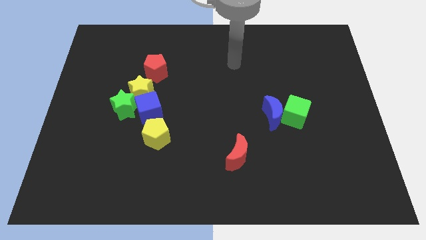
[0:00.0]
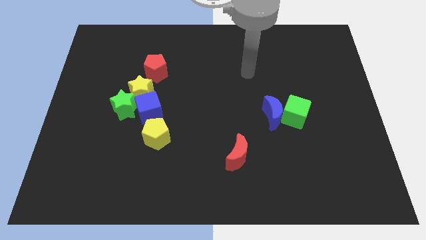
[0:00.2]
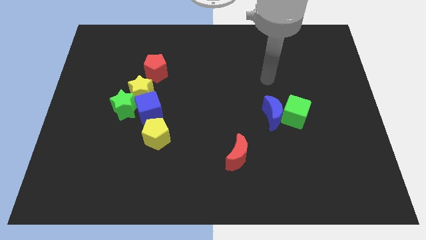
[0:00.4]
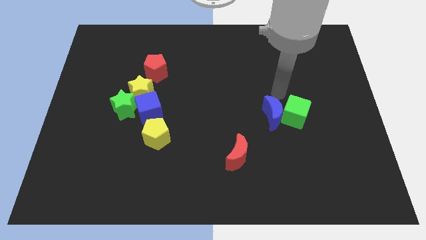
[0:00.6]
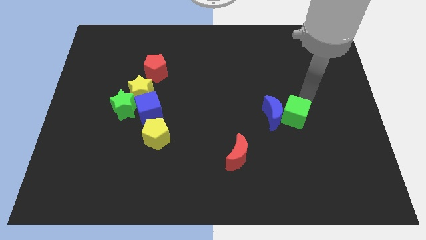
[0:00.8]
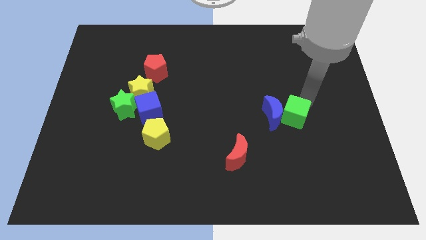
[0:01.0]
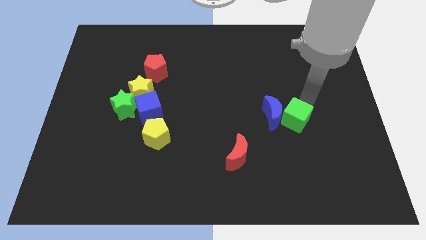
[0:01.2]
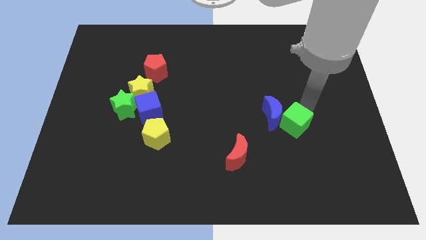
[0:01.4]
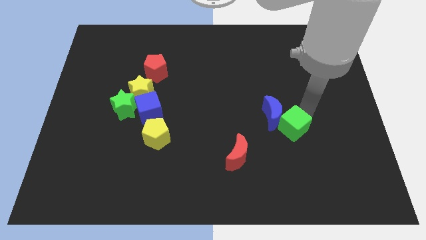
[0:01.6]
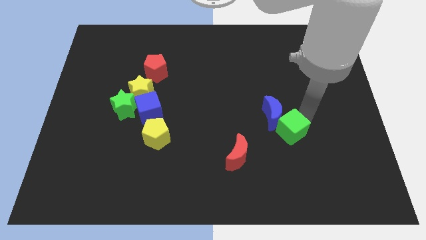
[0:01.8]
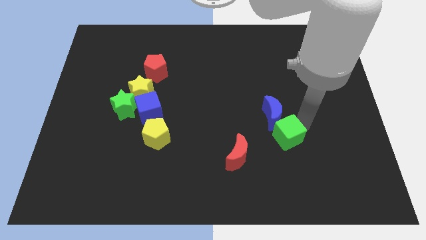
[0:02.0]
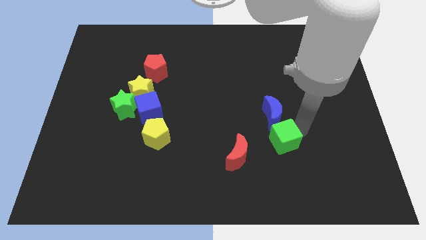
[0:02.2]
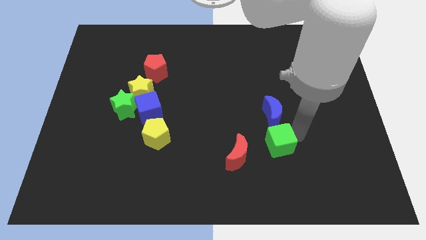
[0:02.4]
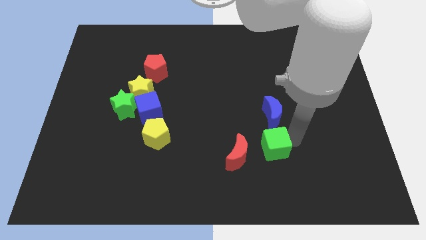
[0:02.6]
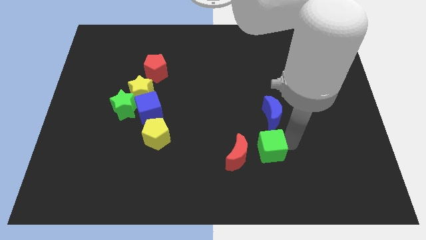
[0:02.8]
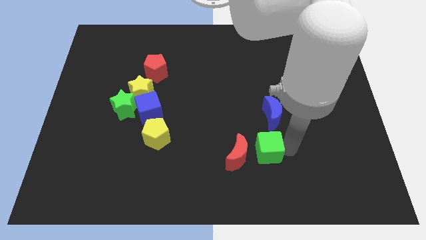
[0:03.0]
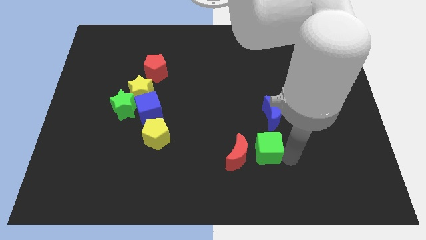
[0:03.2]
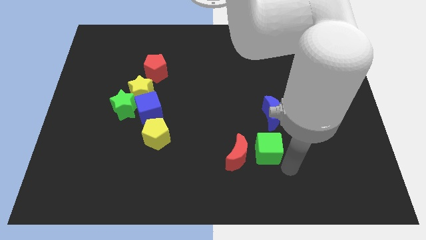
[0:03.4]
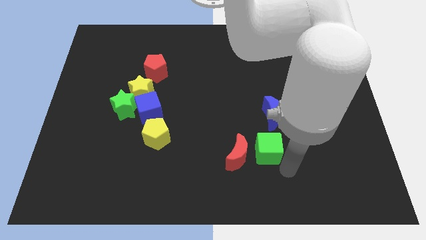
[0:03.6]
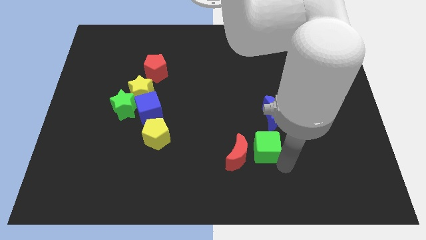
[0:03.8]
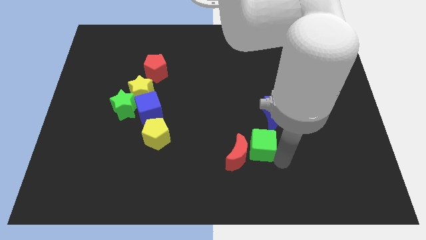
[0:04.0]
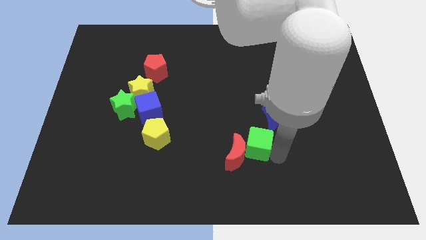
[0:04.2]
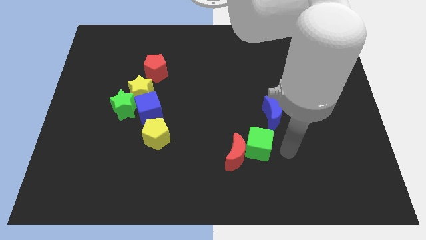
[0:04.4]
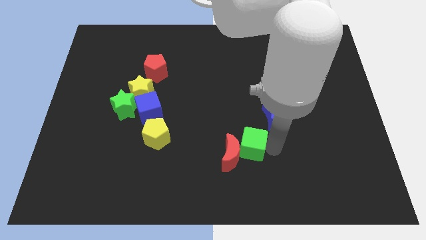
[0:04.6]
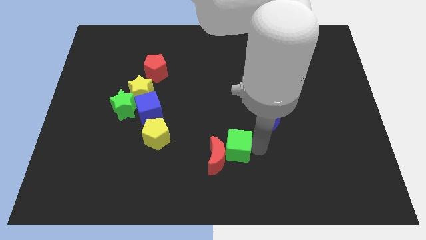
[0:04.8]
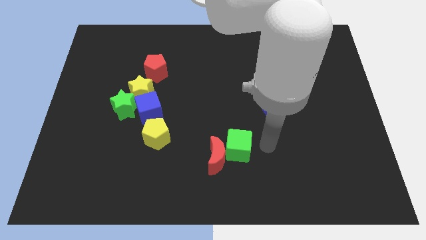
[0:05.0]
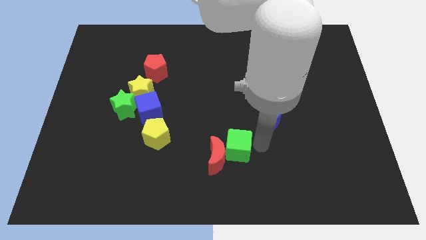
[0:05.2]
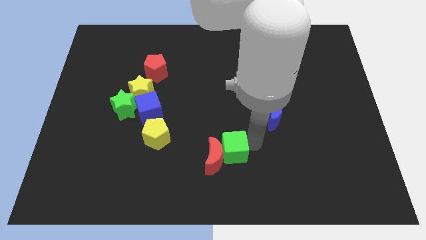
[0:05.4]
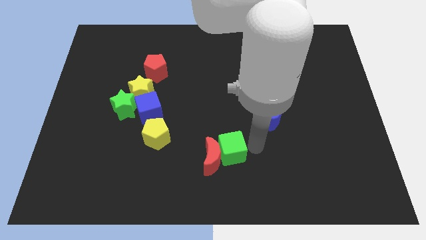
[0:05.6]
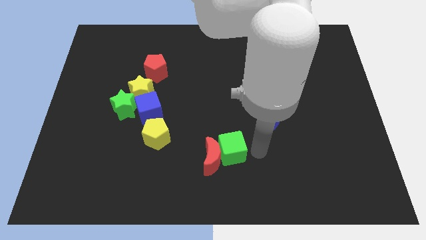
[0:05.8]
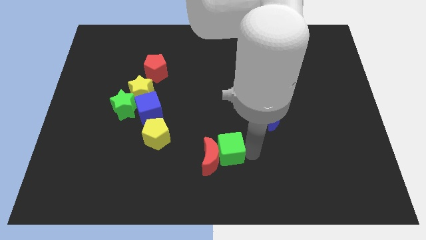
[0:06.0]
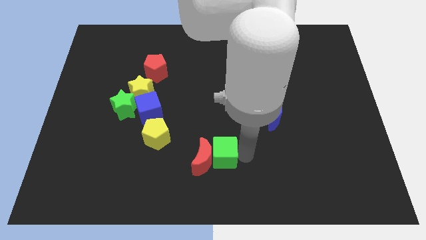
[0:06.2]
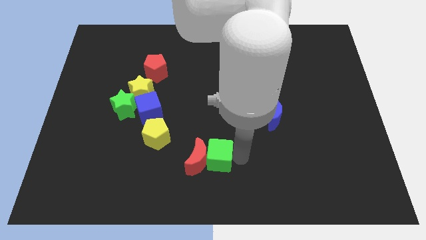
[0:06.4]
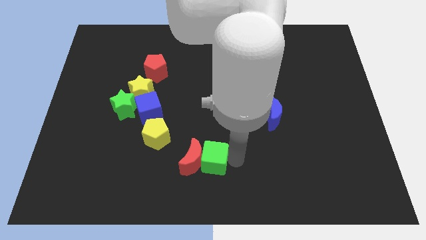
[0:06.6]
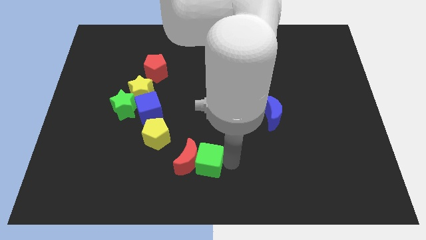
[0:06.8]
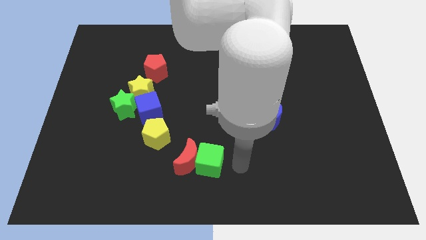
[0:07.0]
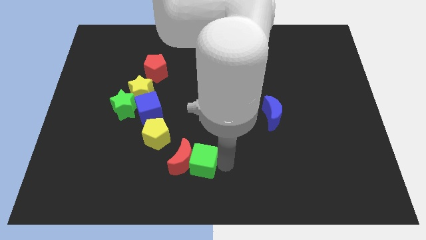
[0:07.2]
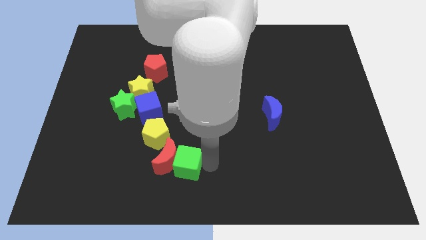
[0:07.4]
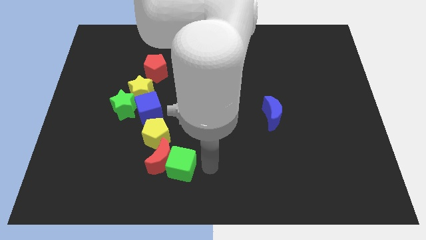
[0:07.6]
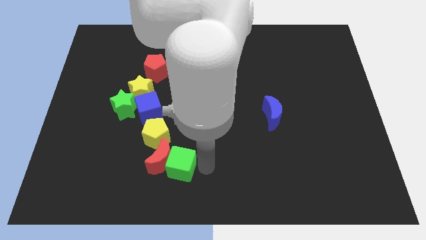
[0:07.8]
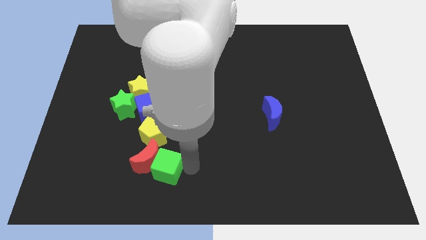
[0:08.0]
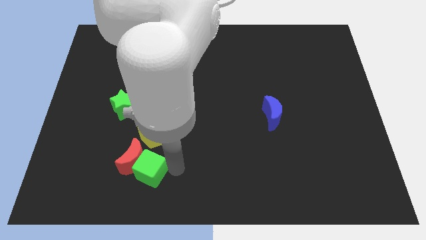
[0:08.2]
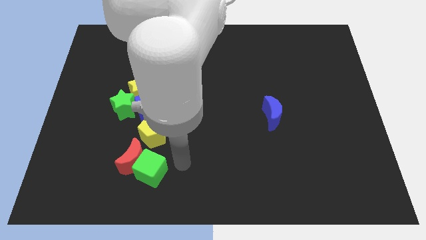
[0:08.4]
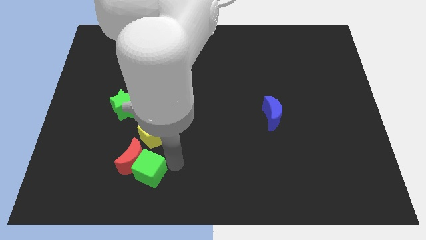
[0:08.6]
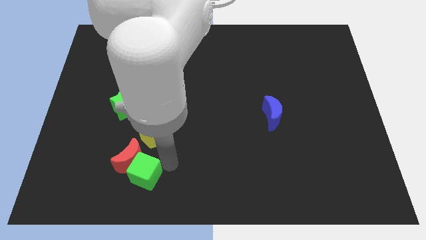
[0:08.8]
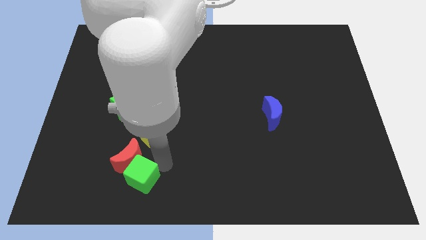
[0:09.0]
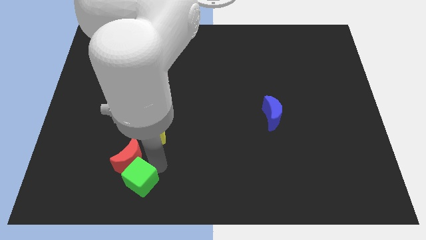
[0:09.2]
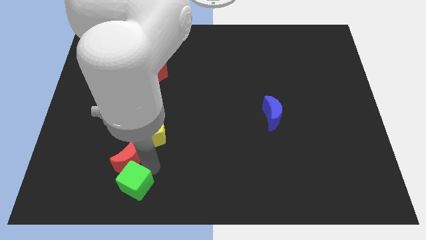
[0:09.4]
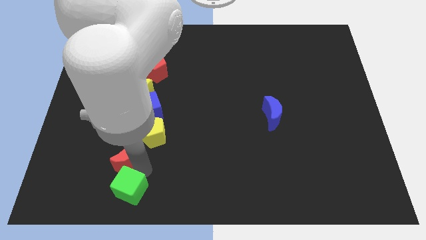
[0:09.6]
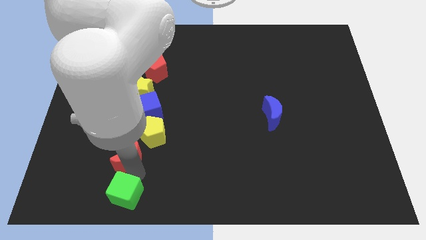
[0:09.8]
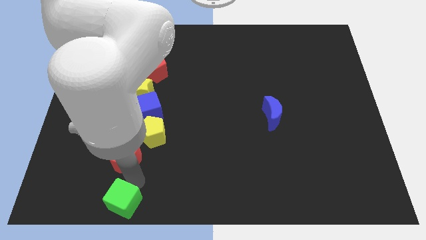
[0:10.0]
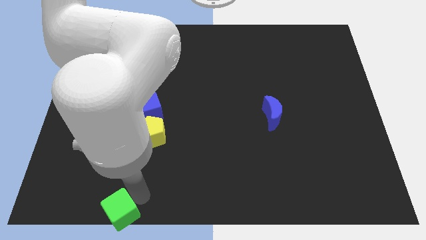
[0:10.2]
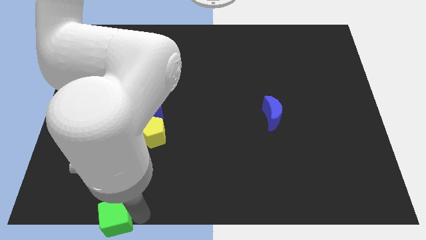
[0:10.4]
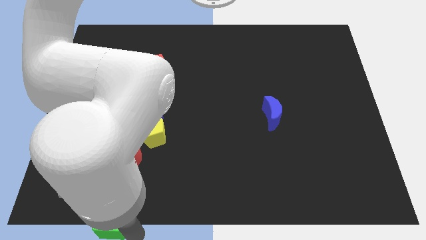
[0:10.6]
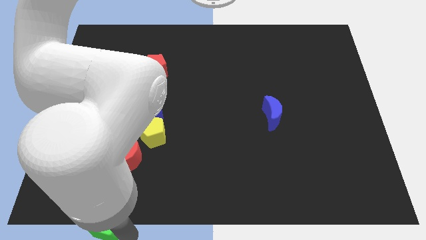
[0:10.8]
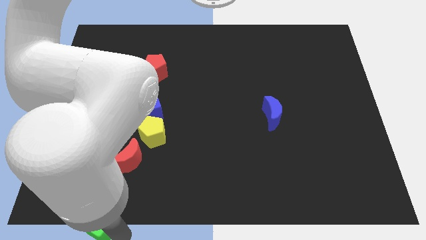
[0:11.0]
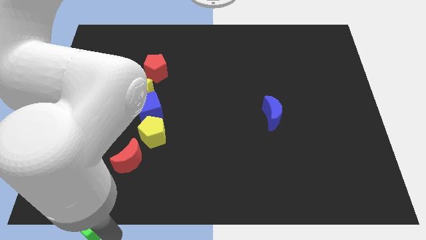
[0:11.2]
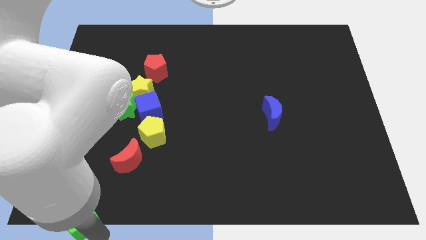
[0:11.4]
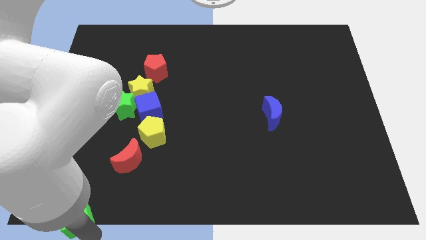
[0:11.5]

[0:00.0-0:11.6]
slide the green cube to the bottom left

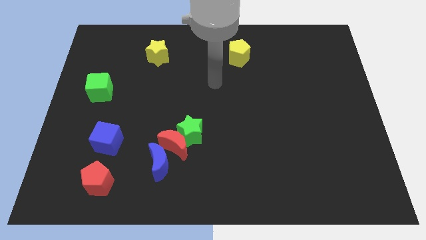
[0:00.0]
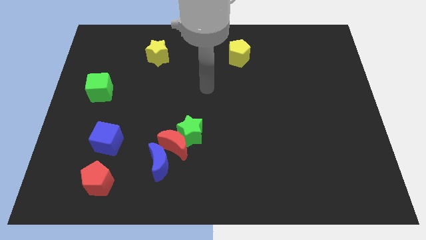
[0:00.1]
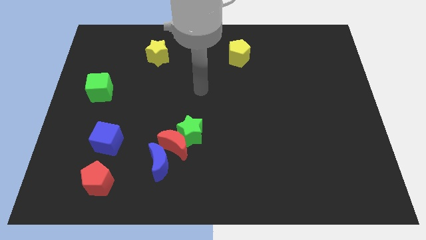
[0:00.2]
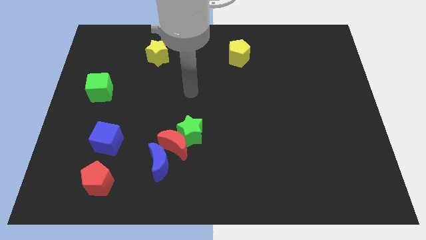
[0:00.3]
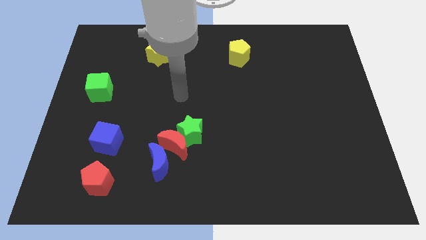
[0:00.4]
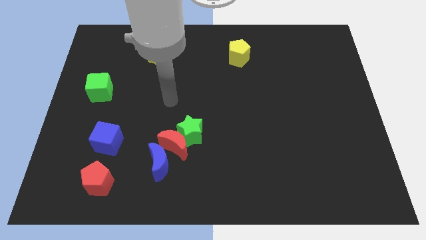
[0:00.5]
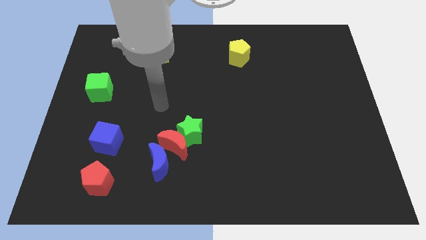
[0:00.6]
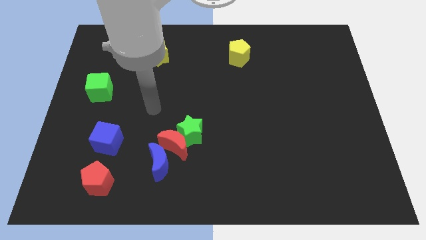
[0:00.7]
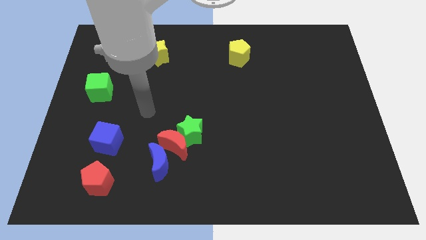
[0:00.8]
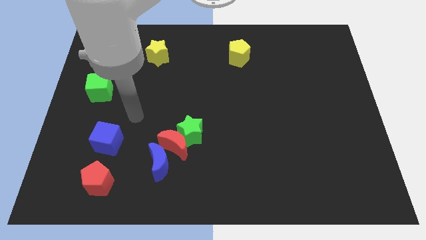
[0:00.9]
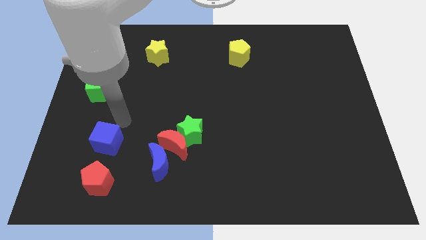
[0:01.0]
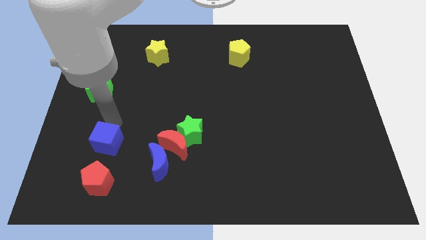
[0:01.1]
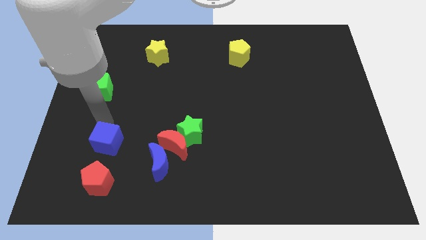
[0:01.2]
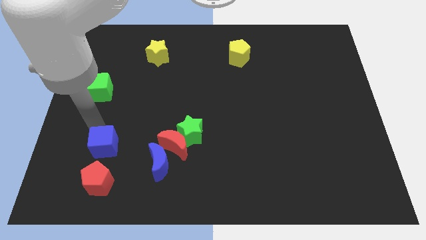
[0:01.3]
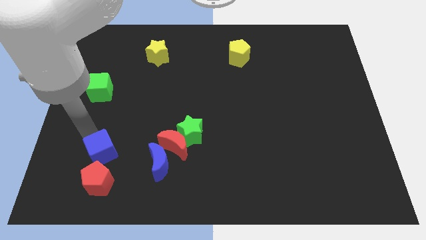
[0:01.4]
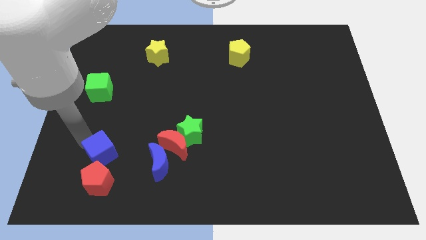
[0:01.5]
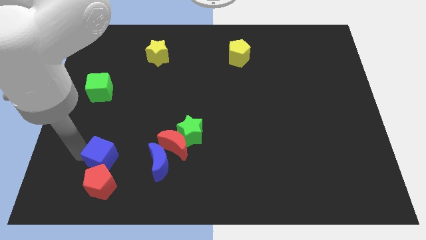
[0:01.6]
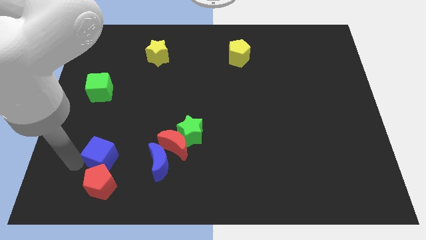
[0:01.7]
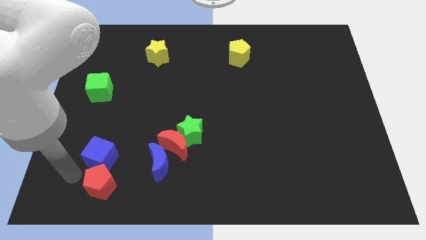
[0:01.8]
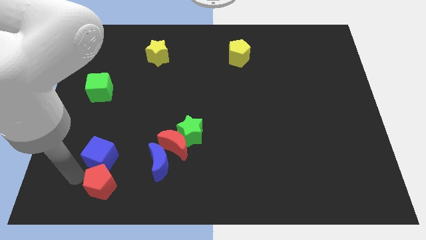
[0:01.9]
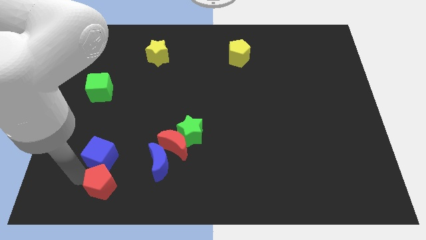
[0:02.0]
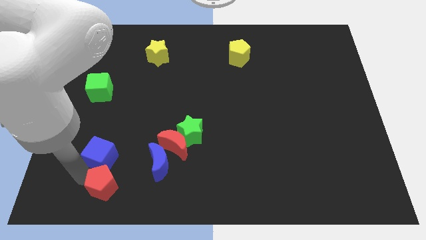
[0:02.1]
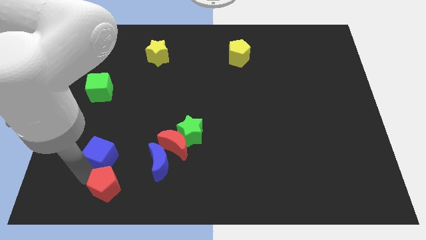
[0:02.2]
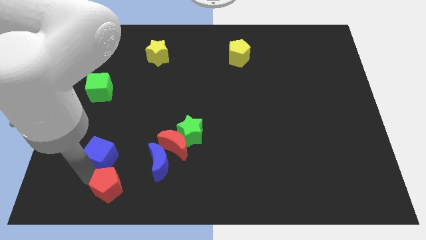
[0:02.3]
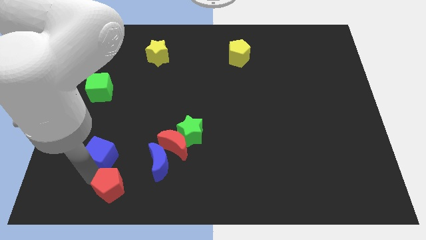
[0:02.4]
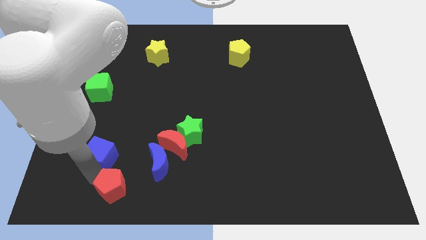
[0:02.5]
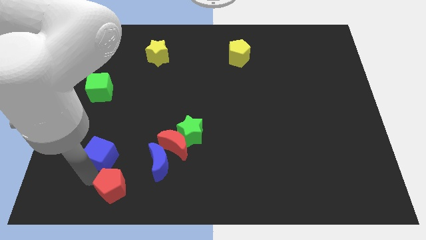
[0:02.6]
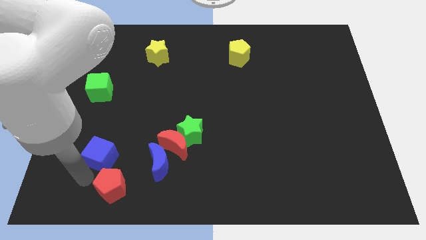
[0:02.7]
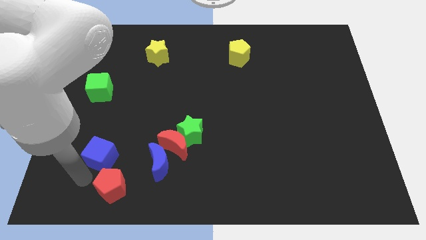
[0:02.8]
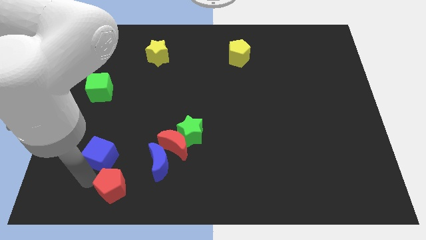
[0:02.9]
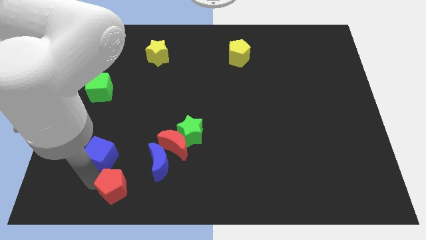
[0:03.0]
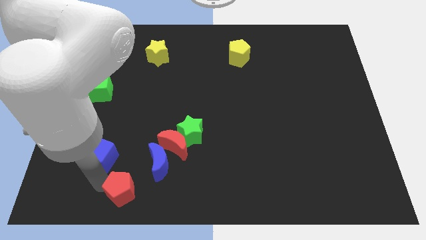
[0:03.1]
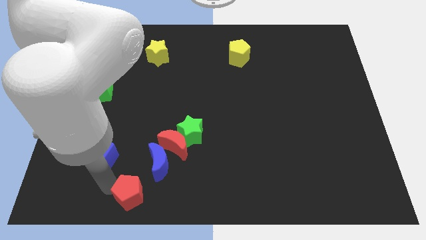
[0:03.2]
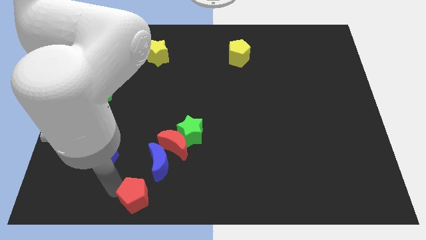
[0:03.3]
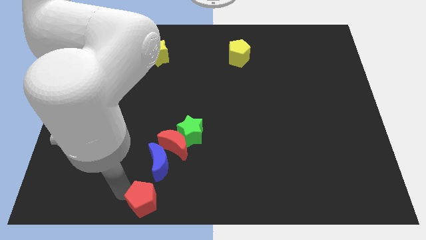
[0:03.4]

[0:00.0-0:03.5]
move the red pentagon to the bottom
